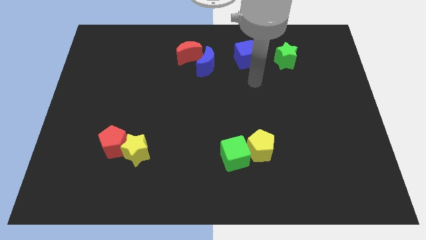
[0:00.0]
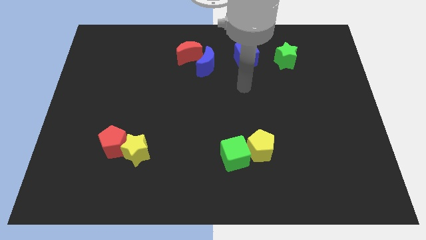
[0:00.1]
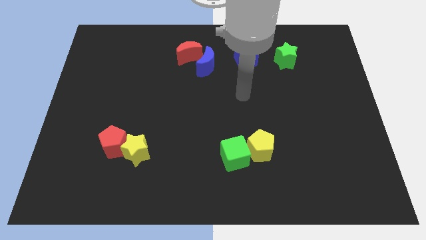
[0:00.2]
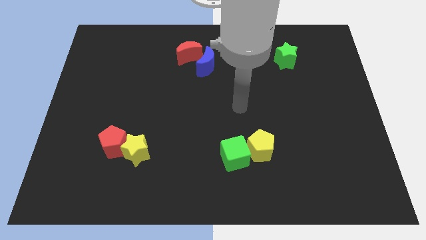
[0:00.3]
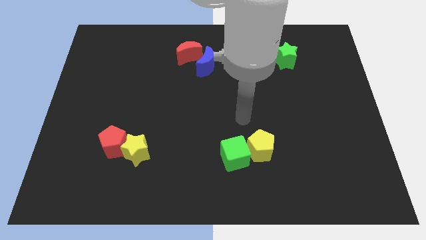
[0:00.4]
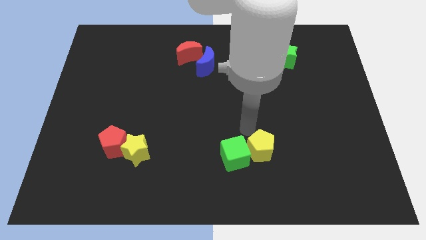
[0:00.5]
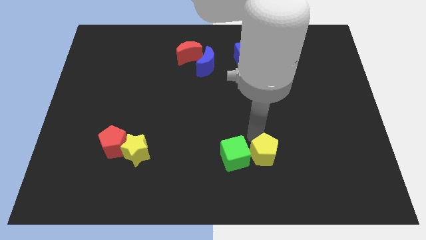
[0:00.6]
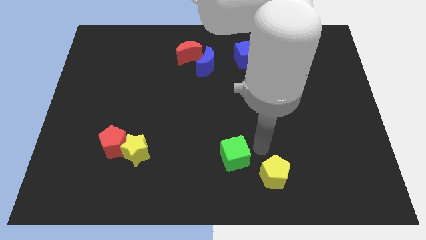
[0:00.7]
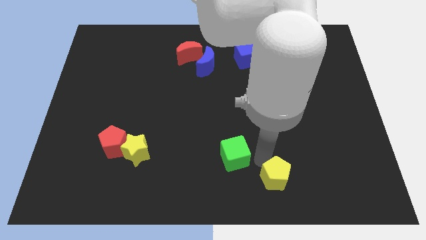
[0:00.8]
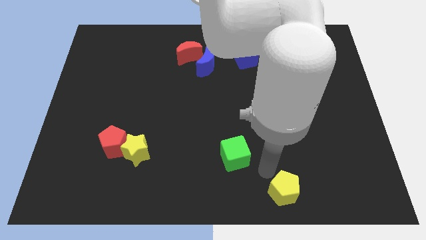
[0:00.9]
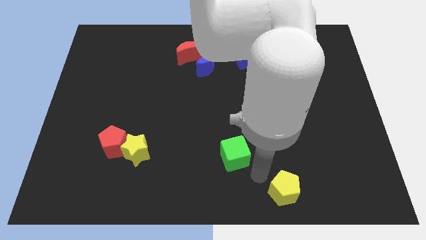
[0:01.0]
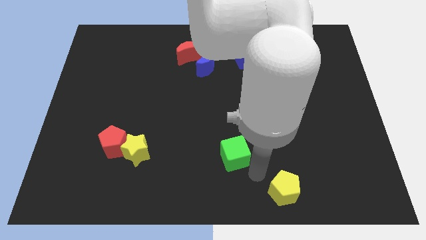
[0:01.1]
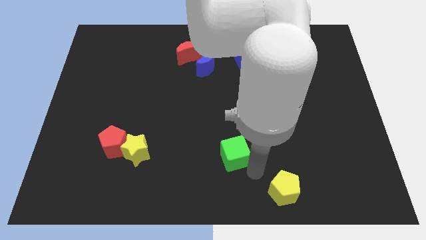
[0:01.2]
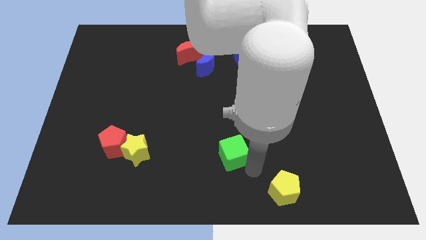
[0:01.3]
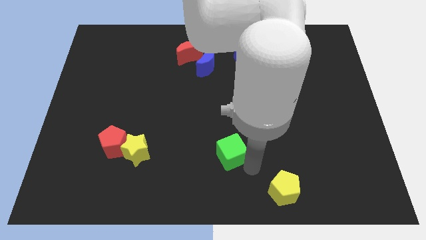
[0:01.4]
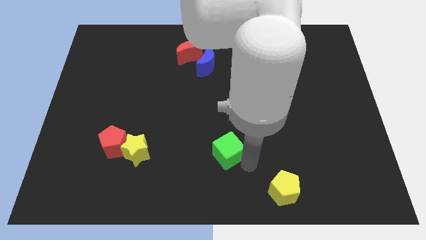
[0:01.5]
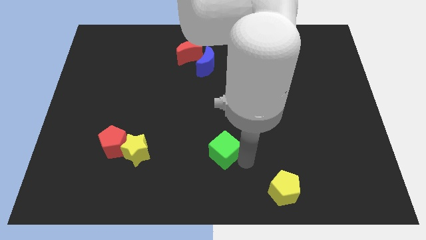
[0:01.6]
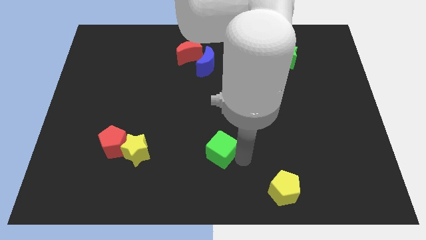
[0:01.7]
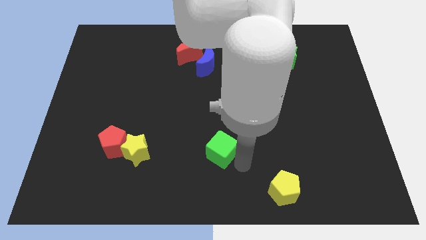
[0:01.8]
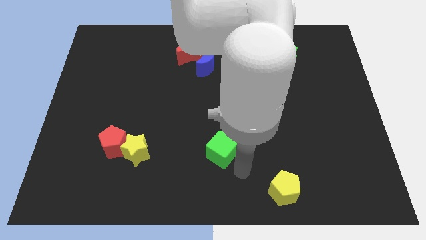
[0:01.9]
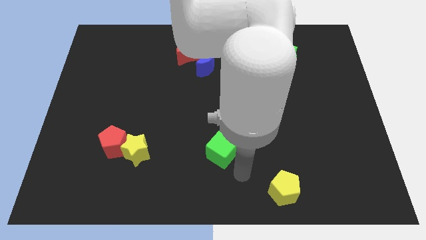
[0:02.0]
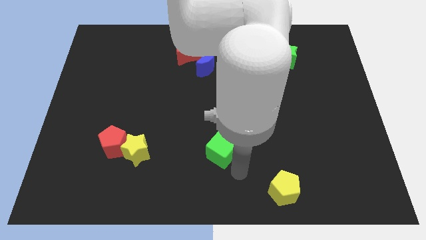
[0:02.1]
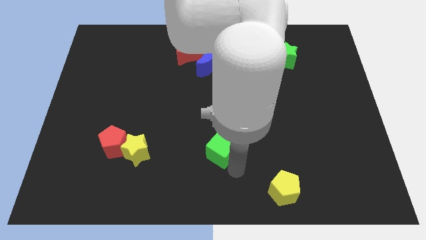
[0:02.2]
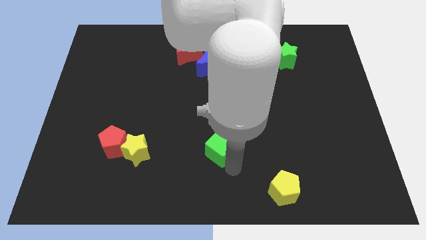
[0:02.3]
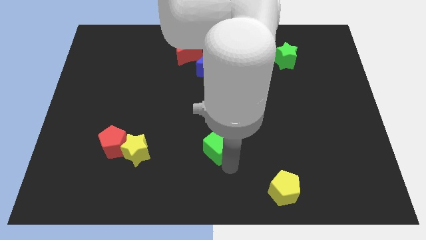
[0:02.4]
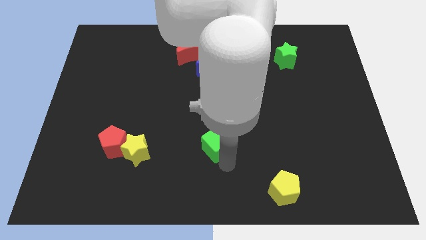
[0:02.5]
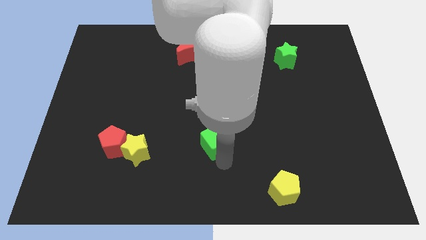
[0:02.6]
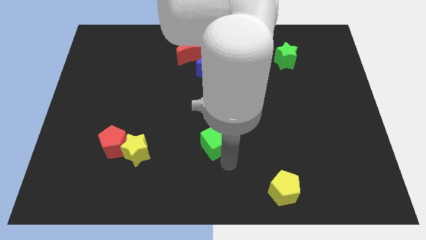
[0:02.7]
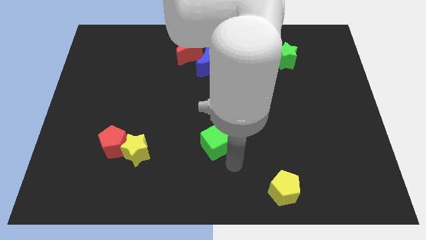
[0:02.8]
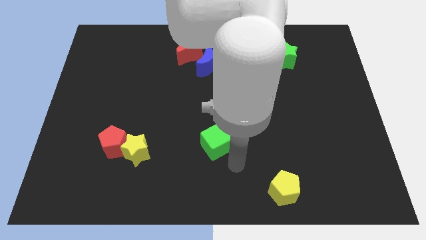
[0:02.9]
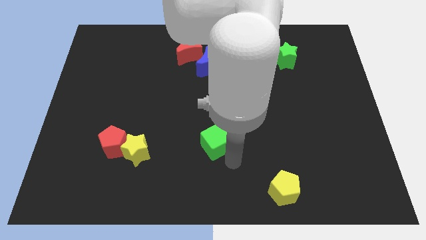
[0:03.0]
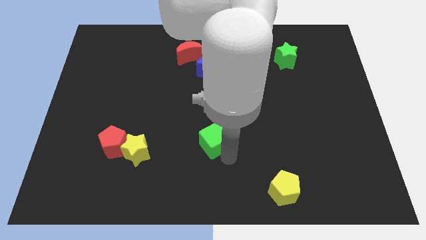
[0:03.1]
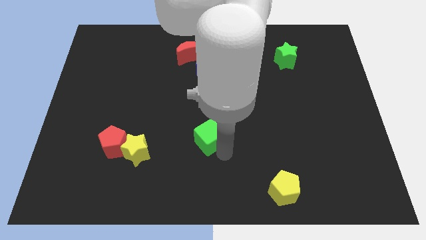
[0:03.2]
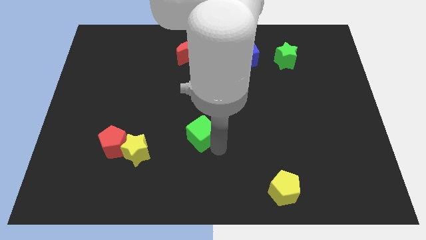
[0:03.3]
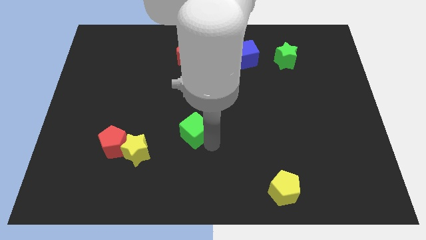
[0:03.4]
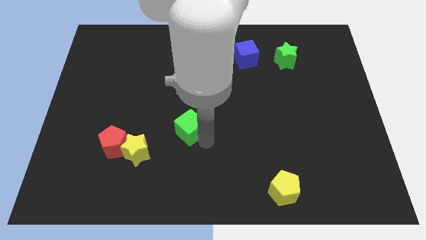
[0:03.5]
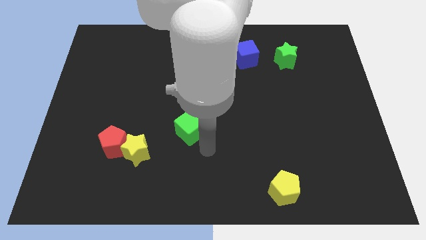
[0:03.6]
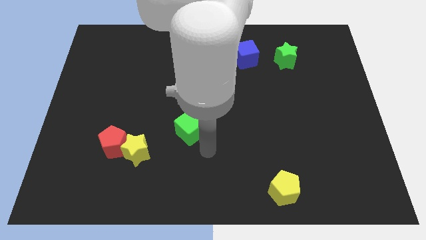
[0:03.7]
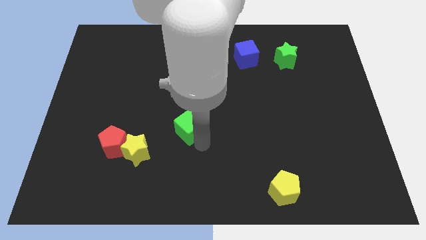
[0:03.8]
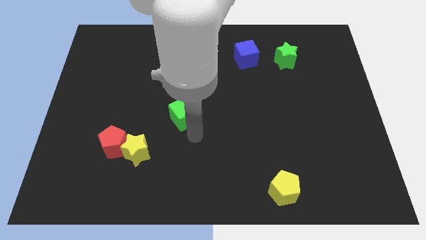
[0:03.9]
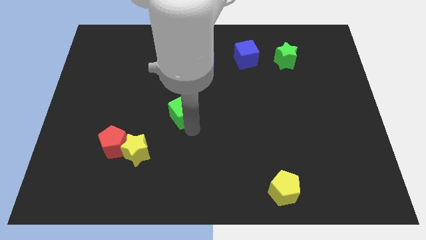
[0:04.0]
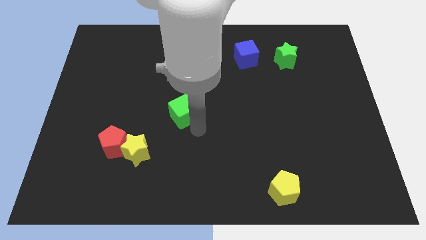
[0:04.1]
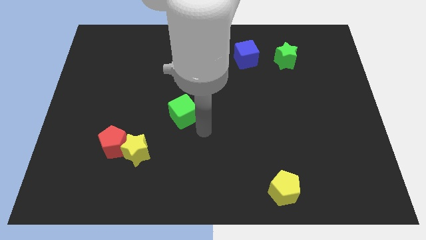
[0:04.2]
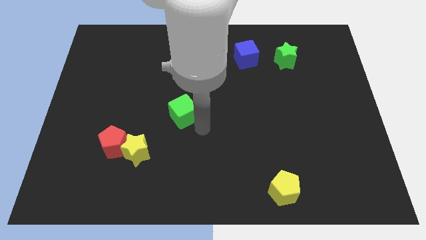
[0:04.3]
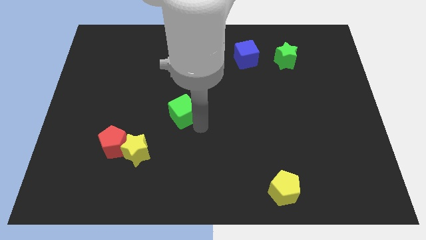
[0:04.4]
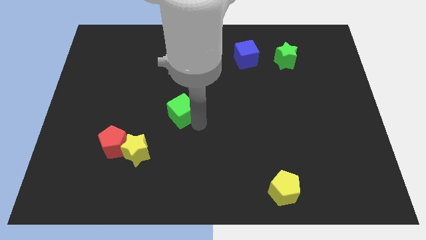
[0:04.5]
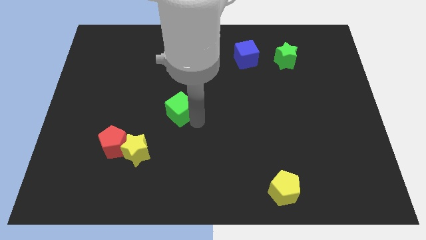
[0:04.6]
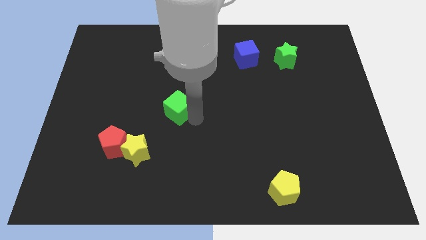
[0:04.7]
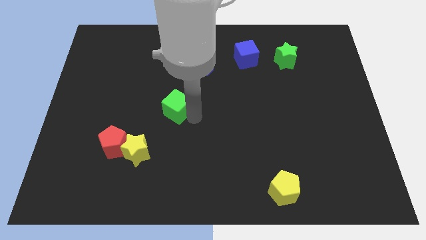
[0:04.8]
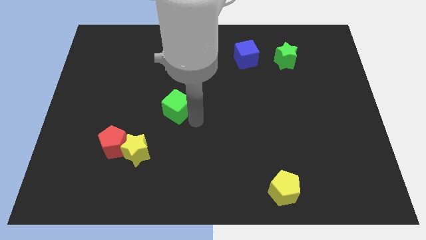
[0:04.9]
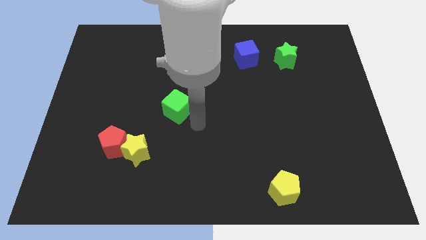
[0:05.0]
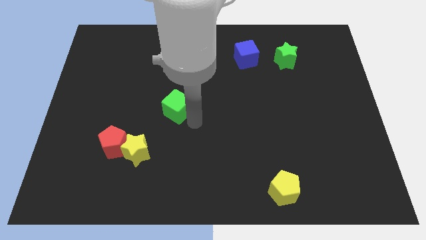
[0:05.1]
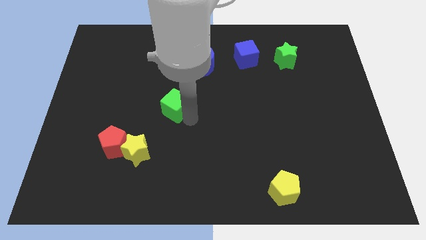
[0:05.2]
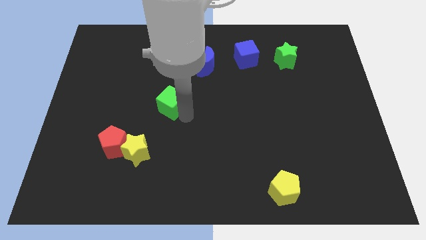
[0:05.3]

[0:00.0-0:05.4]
move the green cube up and then left

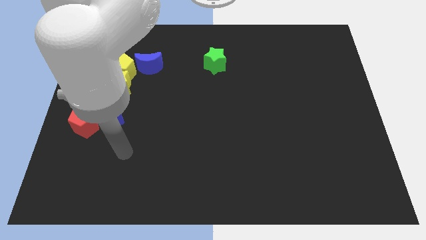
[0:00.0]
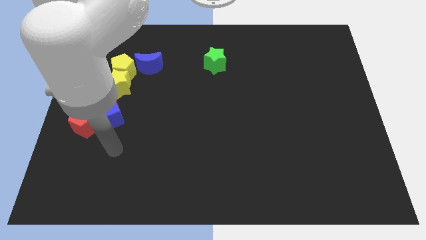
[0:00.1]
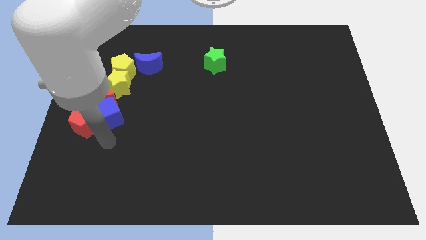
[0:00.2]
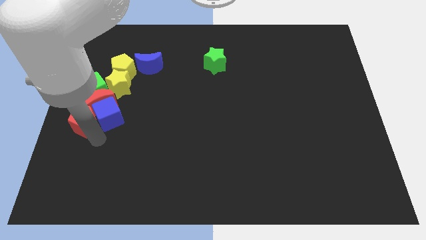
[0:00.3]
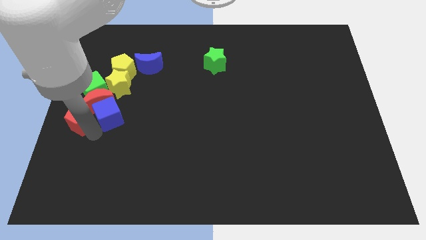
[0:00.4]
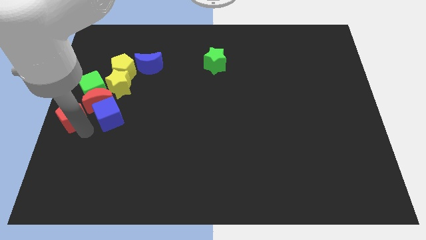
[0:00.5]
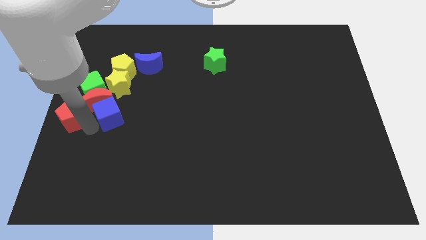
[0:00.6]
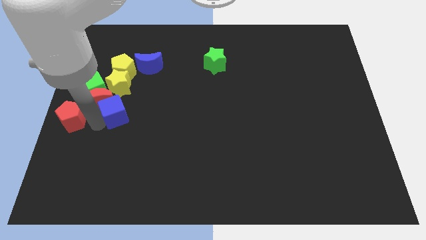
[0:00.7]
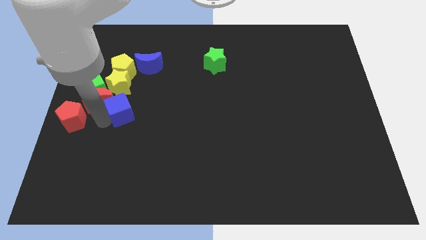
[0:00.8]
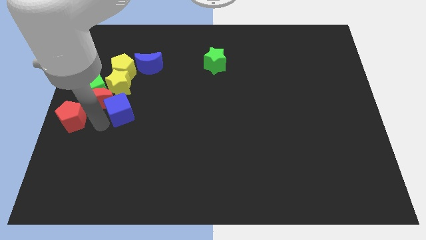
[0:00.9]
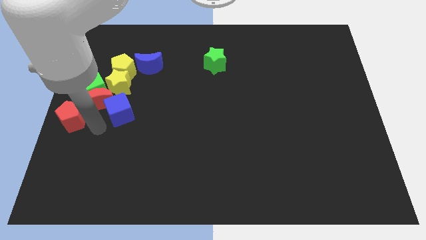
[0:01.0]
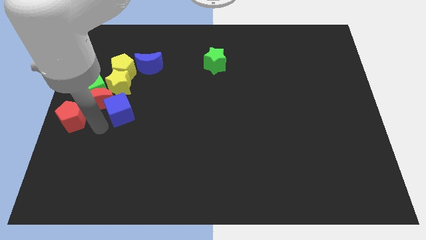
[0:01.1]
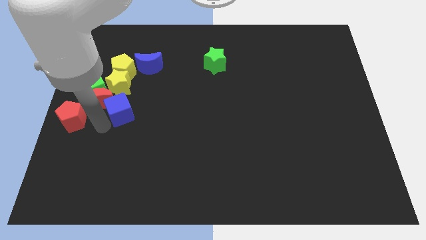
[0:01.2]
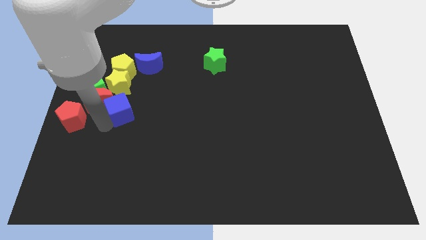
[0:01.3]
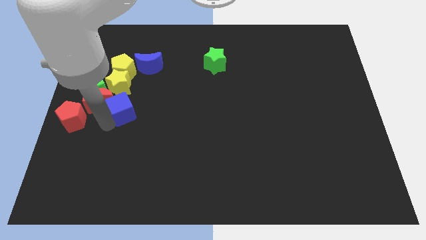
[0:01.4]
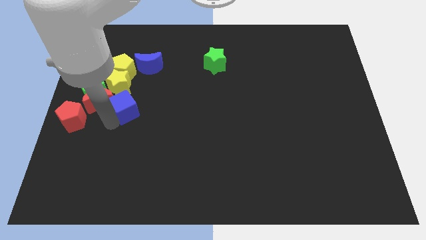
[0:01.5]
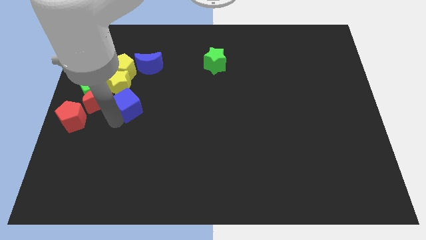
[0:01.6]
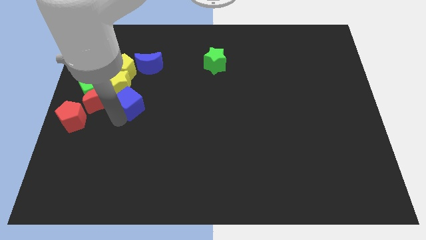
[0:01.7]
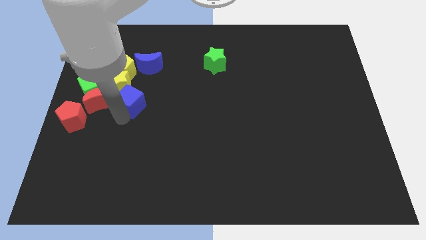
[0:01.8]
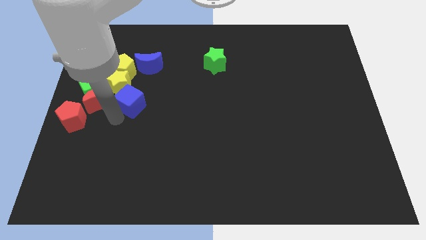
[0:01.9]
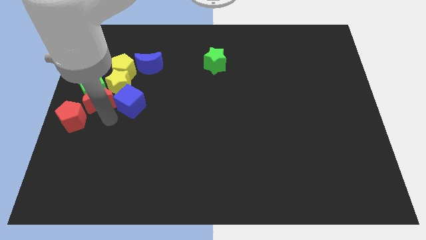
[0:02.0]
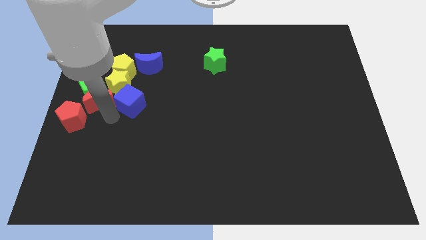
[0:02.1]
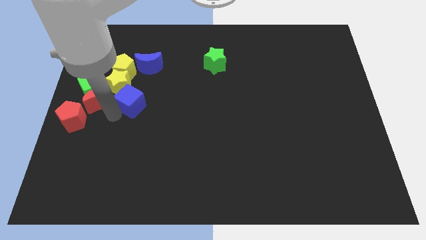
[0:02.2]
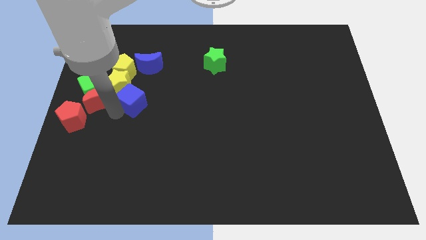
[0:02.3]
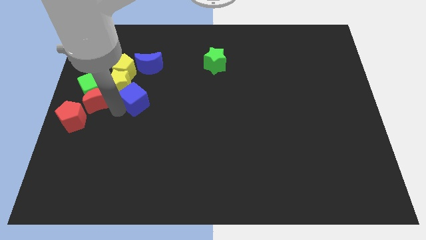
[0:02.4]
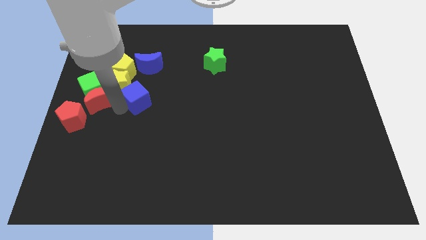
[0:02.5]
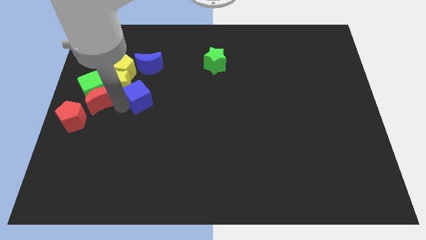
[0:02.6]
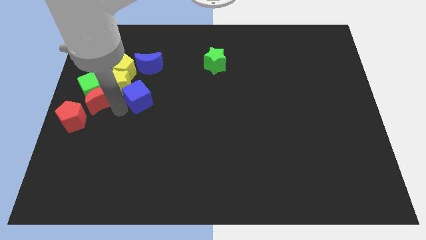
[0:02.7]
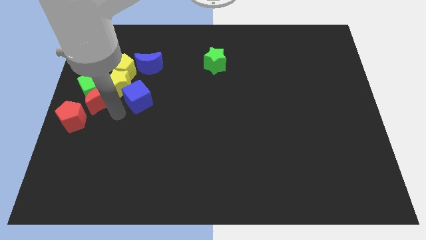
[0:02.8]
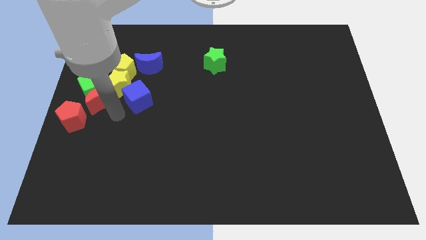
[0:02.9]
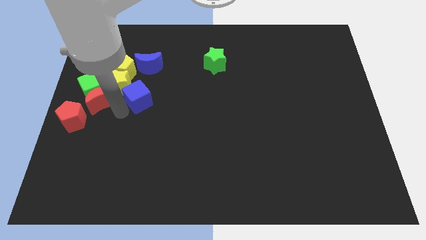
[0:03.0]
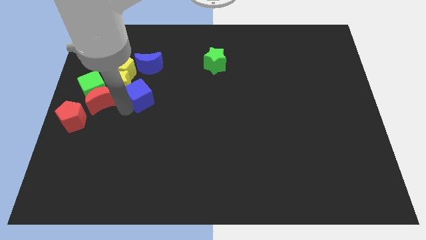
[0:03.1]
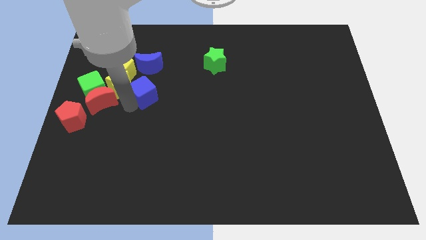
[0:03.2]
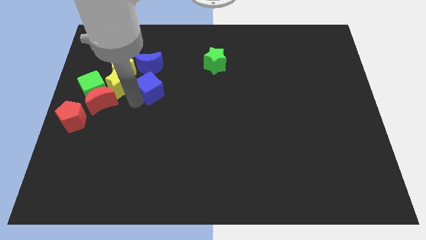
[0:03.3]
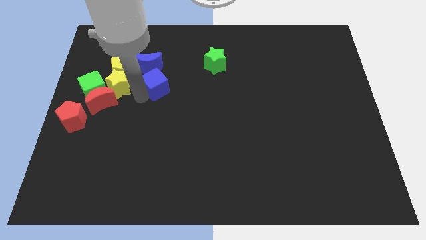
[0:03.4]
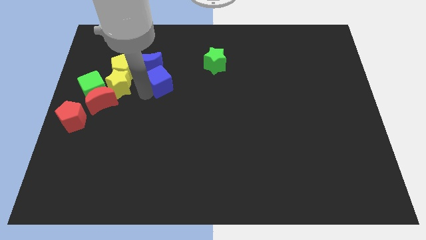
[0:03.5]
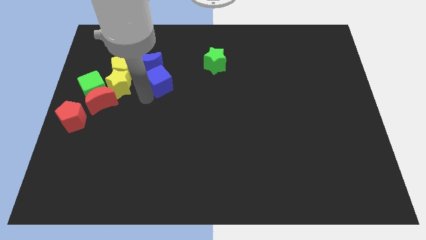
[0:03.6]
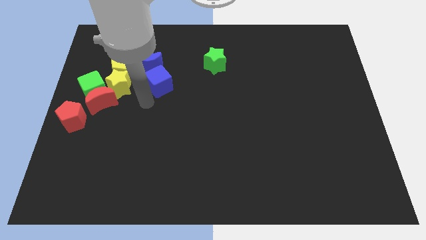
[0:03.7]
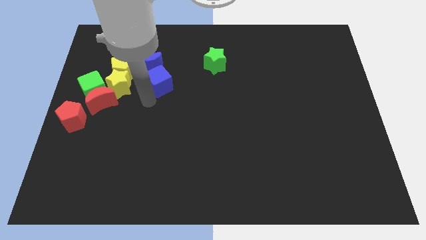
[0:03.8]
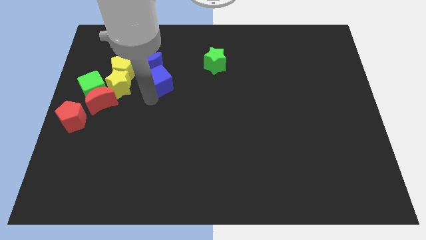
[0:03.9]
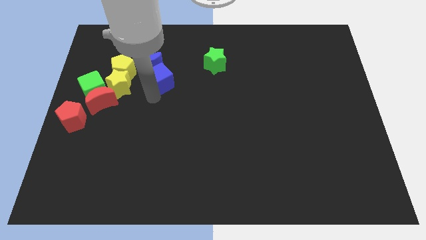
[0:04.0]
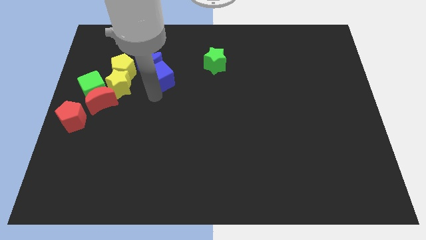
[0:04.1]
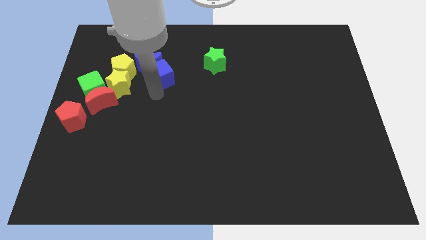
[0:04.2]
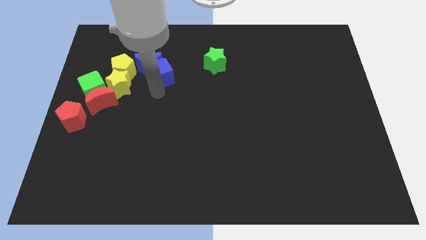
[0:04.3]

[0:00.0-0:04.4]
push the blue cube a little bit upwards
